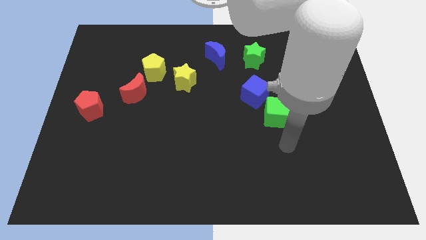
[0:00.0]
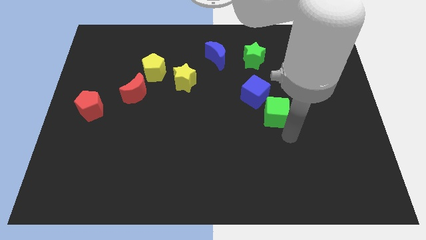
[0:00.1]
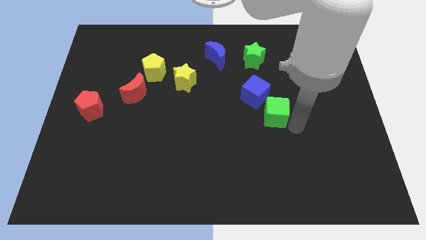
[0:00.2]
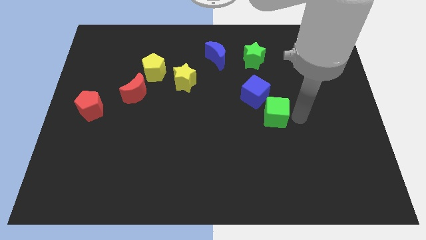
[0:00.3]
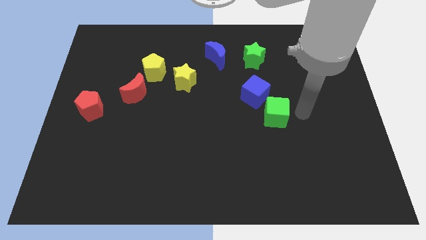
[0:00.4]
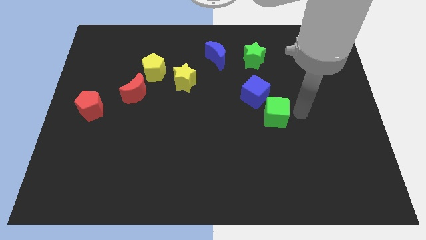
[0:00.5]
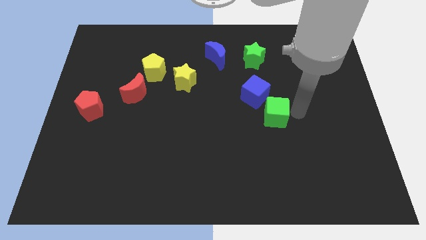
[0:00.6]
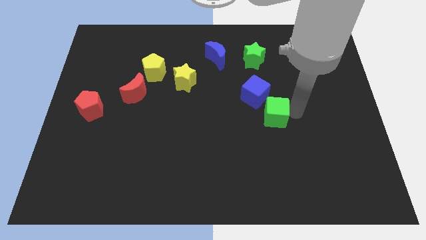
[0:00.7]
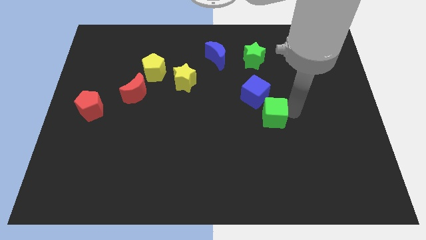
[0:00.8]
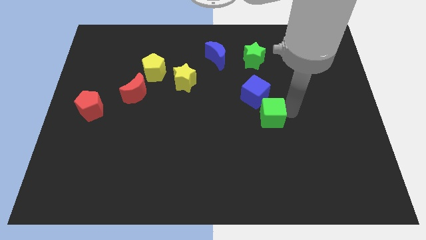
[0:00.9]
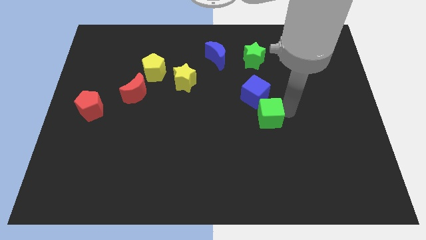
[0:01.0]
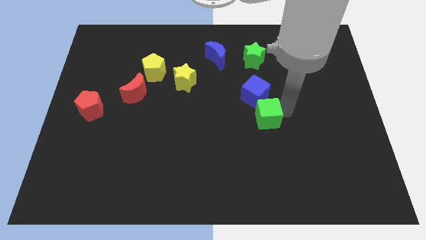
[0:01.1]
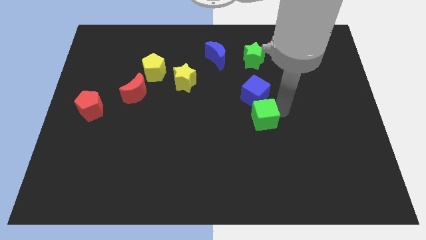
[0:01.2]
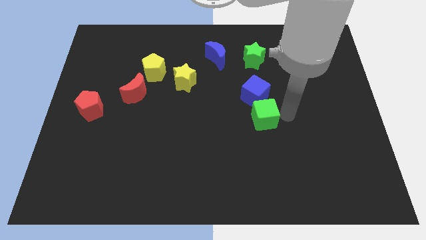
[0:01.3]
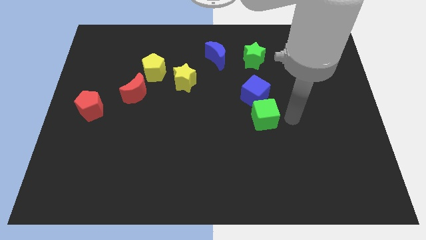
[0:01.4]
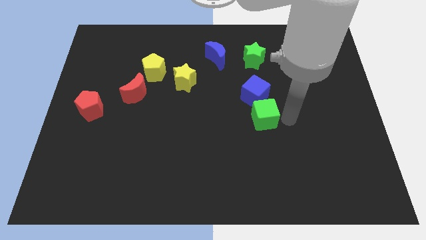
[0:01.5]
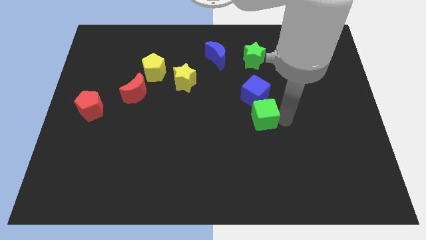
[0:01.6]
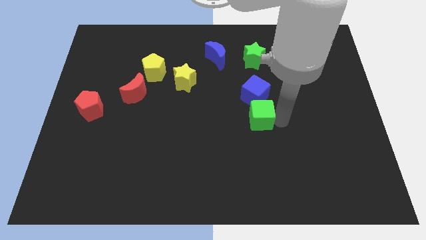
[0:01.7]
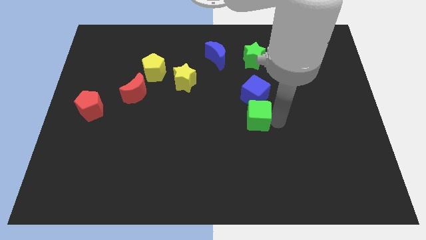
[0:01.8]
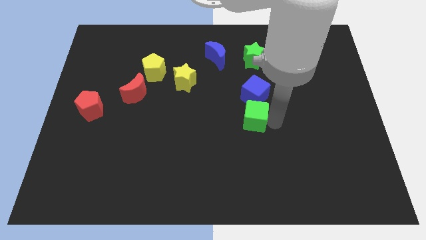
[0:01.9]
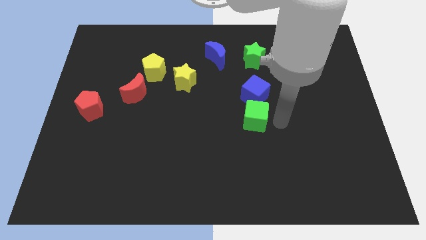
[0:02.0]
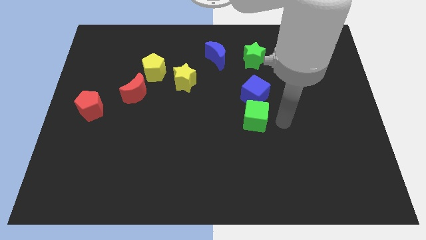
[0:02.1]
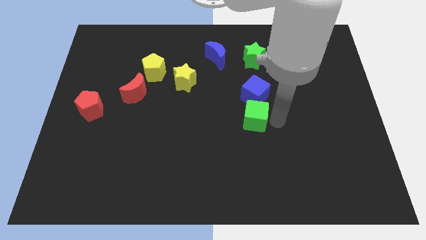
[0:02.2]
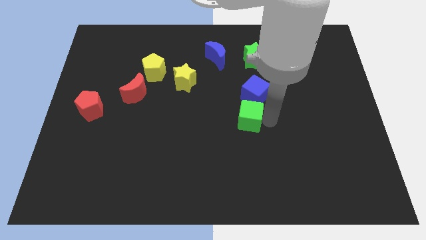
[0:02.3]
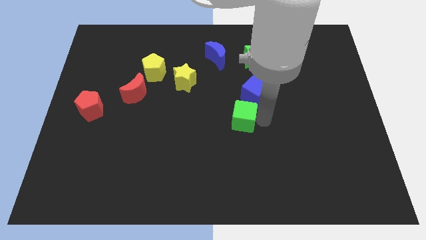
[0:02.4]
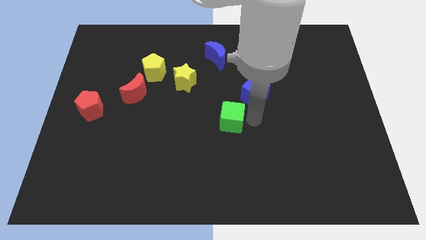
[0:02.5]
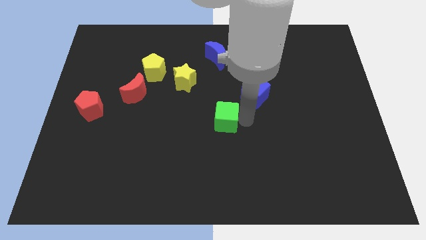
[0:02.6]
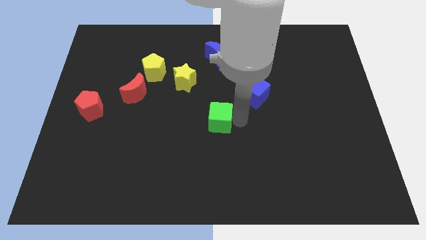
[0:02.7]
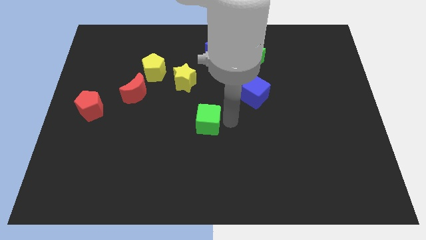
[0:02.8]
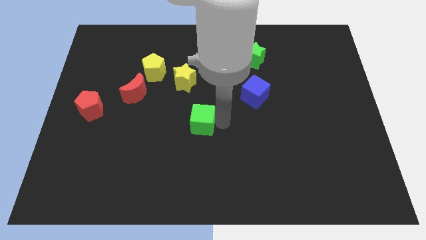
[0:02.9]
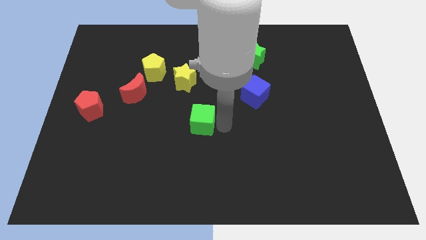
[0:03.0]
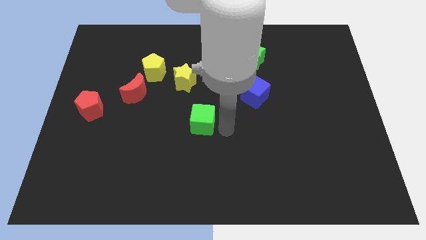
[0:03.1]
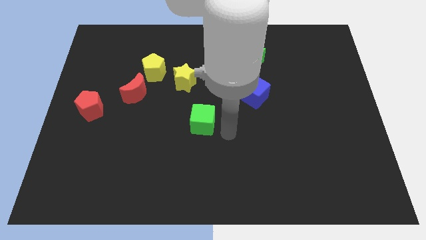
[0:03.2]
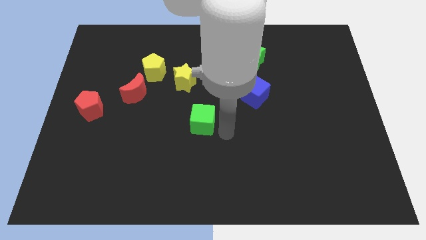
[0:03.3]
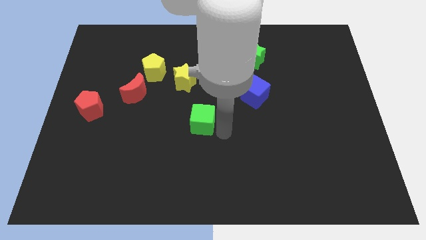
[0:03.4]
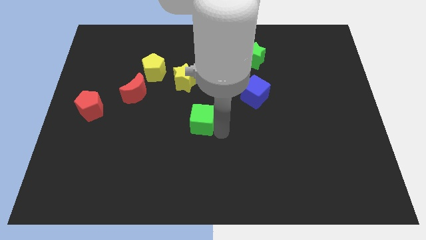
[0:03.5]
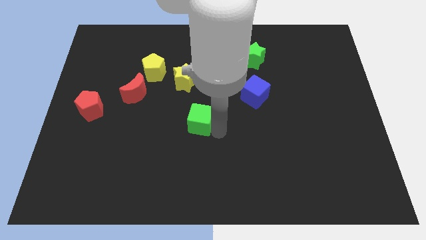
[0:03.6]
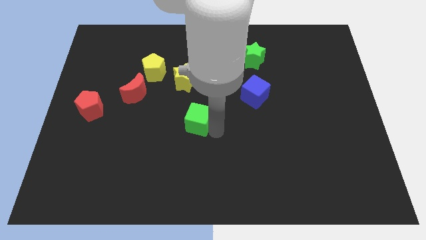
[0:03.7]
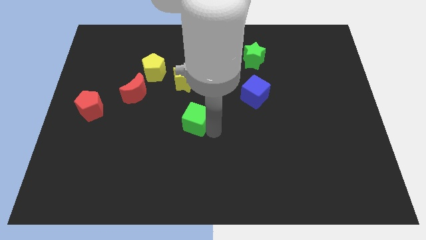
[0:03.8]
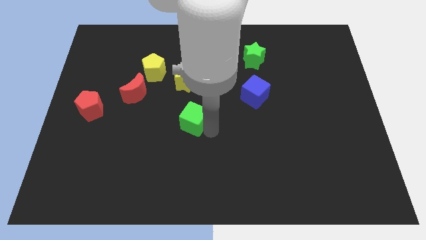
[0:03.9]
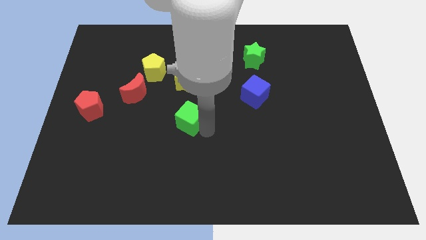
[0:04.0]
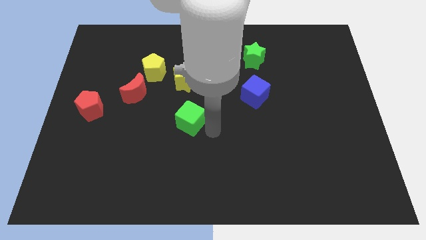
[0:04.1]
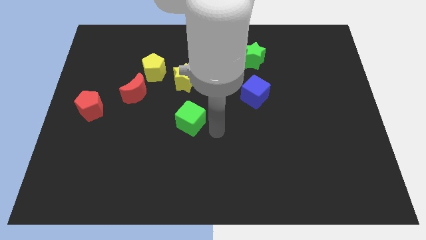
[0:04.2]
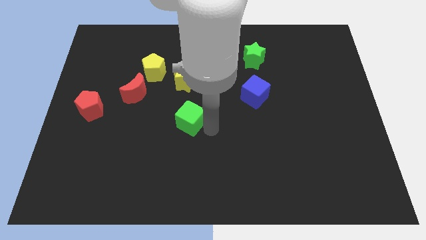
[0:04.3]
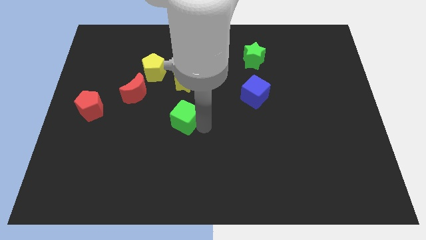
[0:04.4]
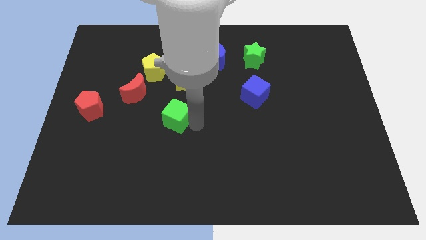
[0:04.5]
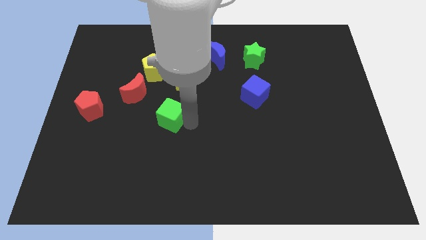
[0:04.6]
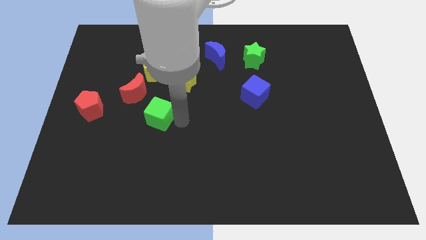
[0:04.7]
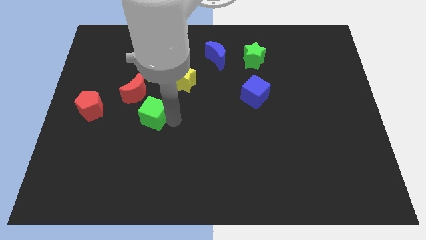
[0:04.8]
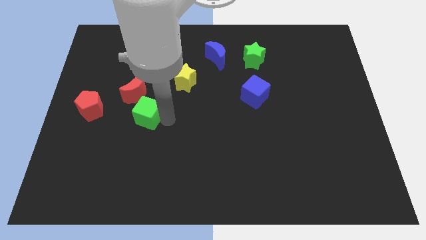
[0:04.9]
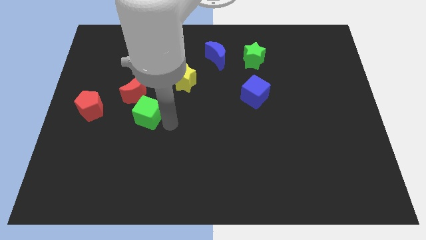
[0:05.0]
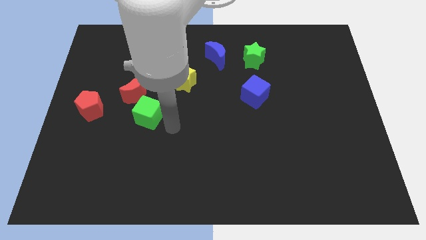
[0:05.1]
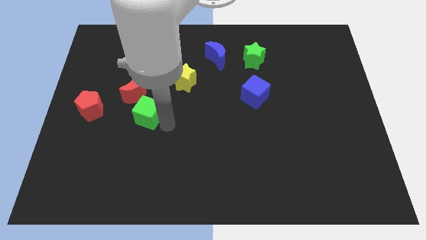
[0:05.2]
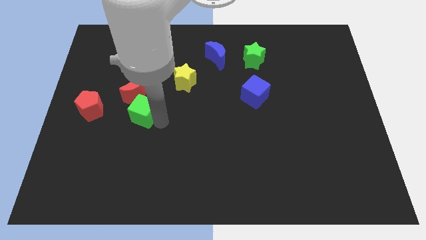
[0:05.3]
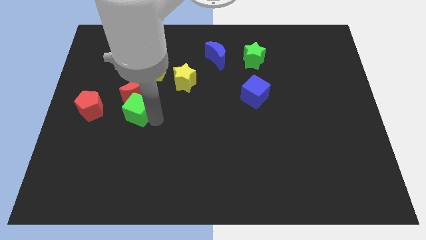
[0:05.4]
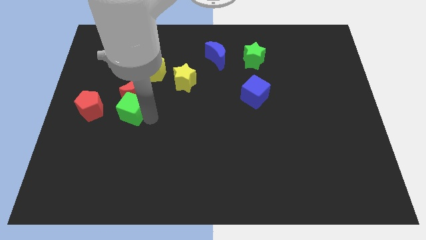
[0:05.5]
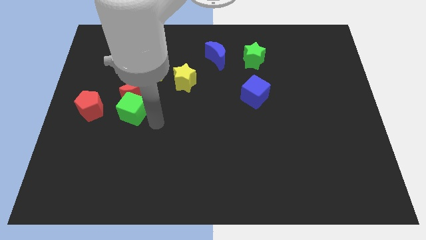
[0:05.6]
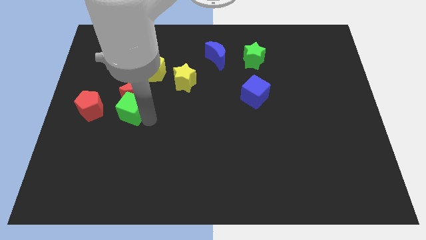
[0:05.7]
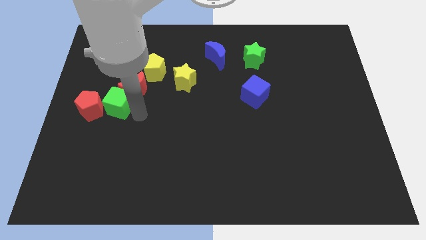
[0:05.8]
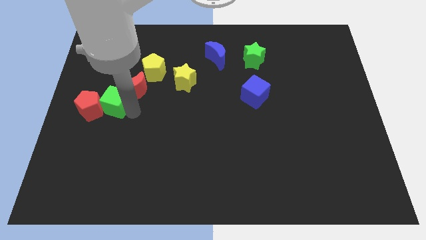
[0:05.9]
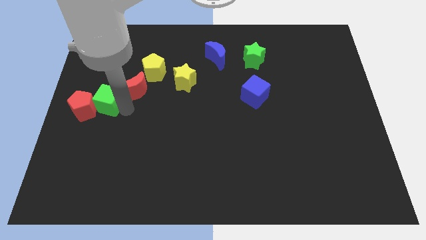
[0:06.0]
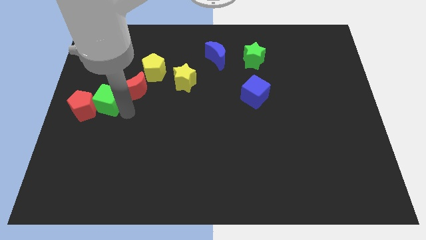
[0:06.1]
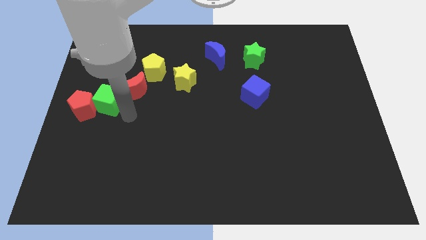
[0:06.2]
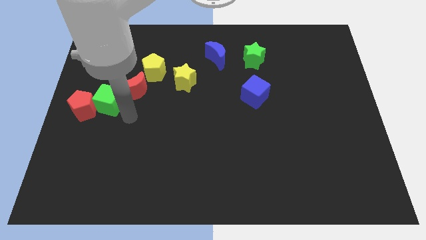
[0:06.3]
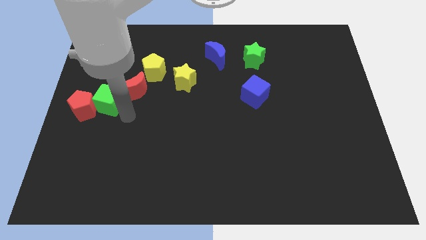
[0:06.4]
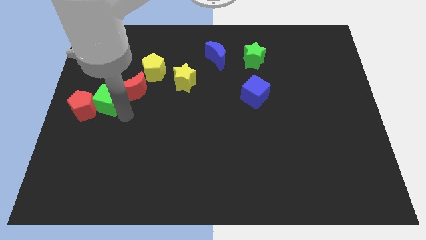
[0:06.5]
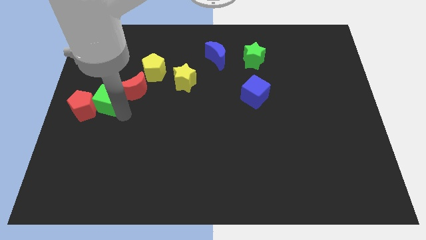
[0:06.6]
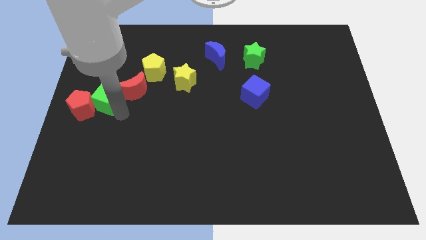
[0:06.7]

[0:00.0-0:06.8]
move the green cube to the center left
